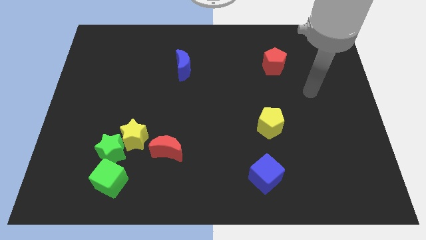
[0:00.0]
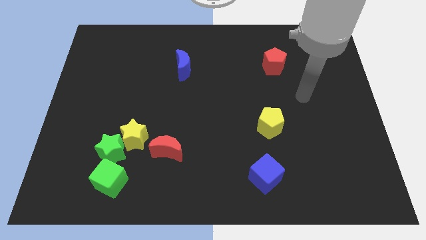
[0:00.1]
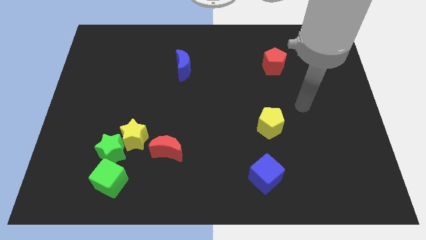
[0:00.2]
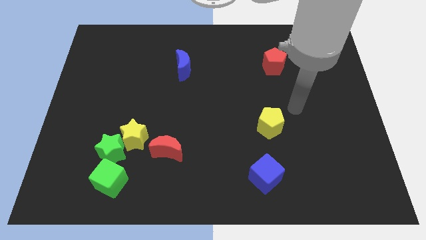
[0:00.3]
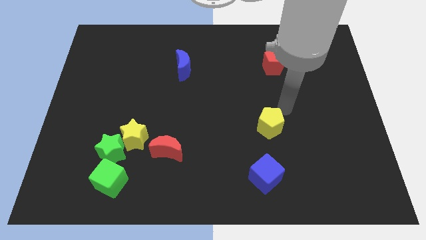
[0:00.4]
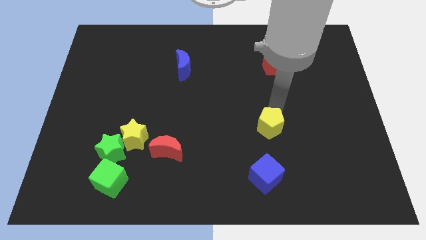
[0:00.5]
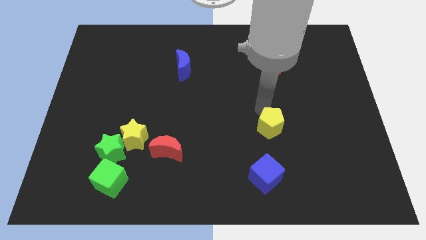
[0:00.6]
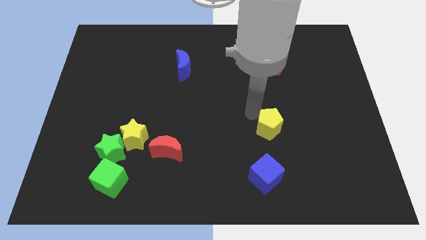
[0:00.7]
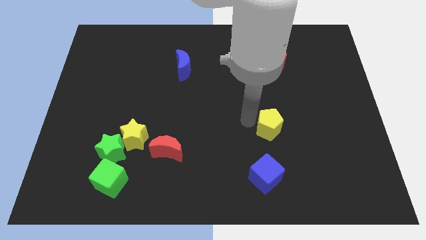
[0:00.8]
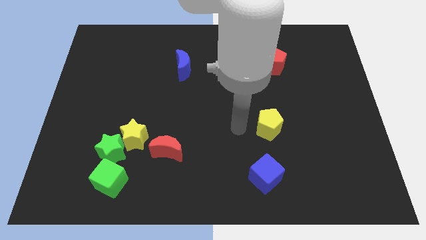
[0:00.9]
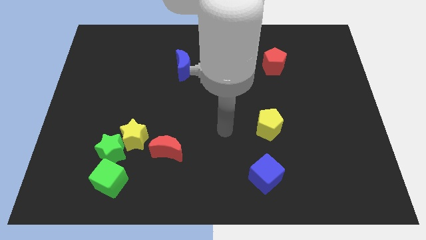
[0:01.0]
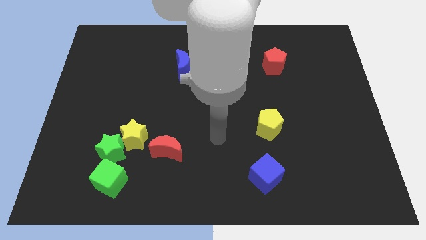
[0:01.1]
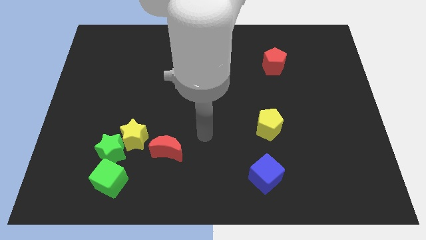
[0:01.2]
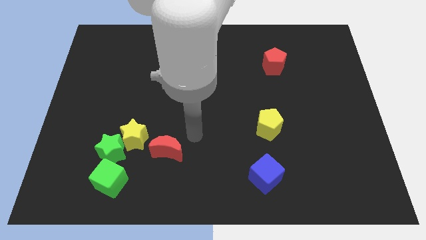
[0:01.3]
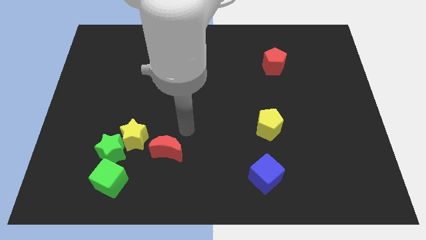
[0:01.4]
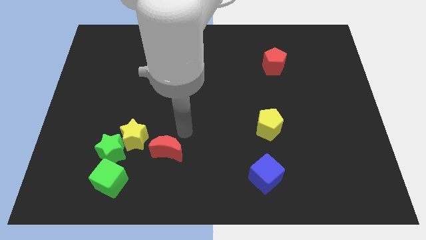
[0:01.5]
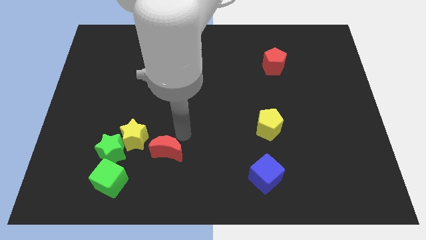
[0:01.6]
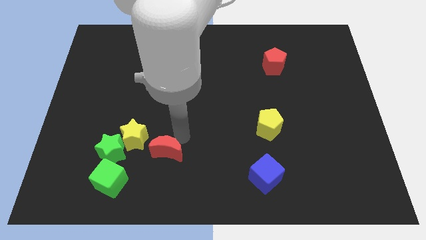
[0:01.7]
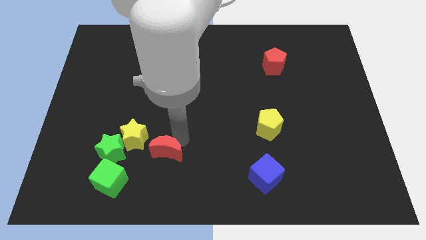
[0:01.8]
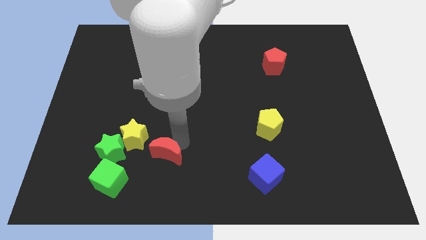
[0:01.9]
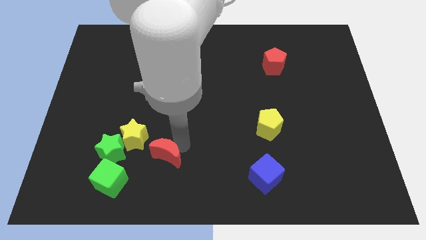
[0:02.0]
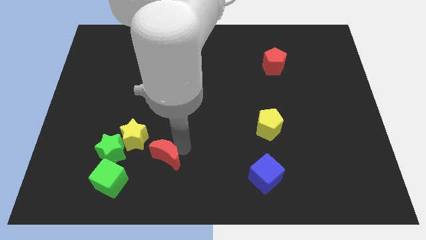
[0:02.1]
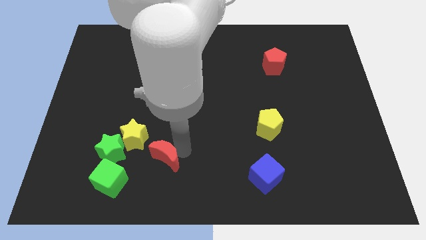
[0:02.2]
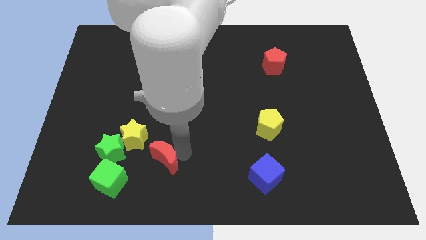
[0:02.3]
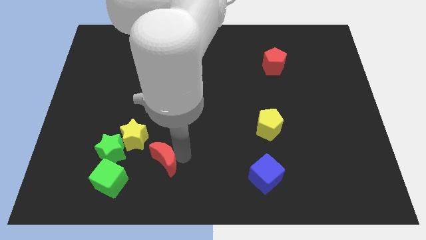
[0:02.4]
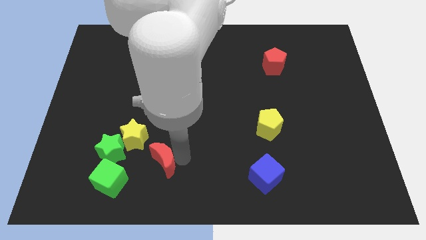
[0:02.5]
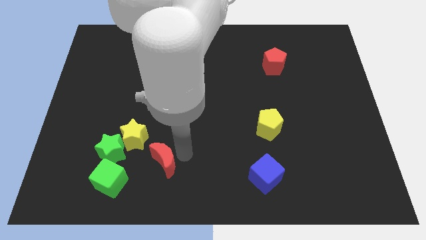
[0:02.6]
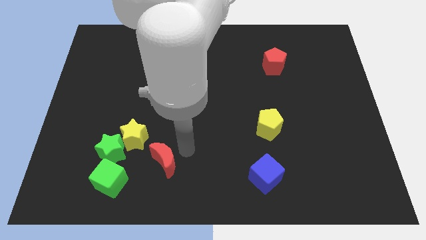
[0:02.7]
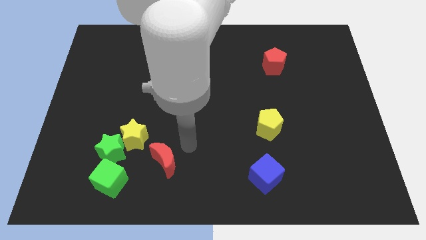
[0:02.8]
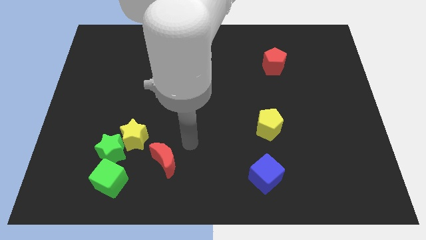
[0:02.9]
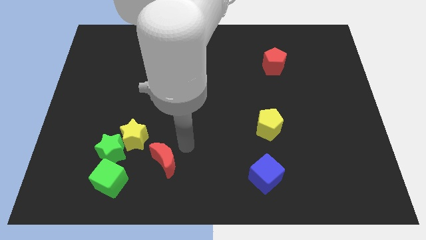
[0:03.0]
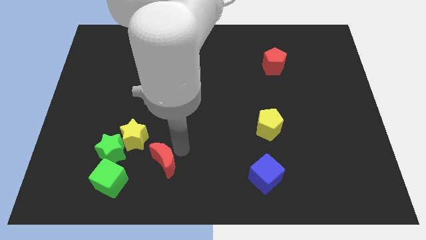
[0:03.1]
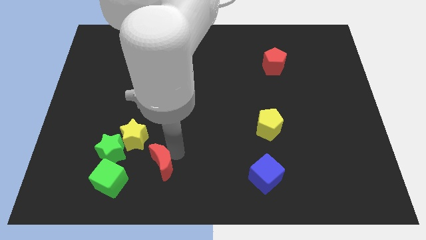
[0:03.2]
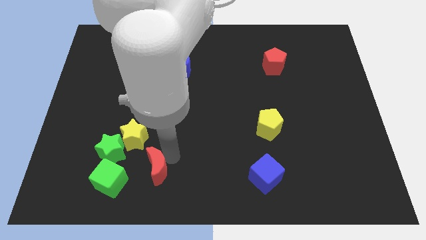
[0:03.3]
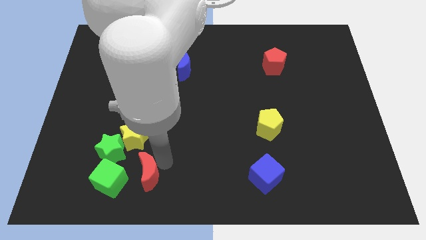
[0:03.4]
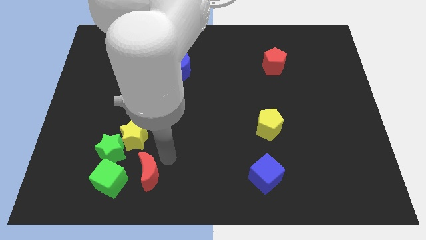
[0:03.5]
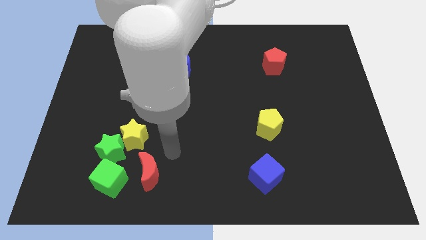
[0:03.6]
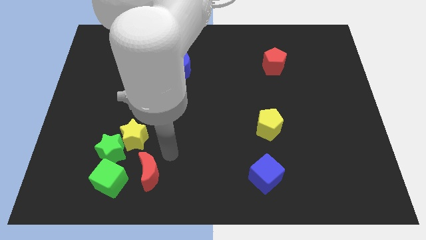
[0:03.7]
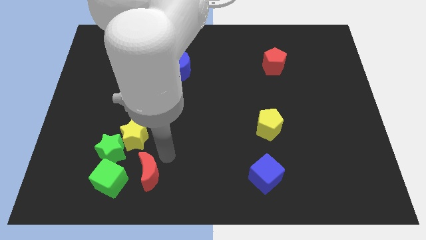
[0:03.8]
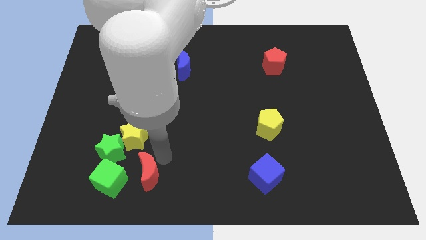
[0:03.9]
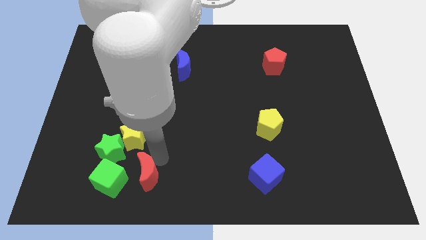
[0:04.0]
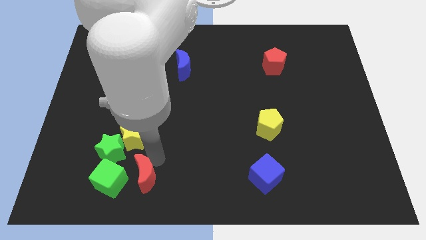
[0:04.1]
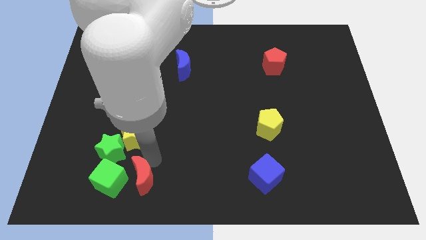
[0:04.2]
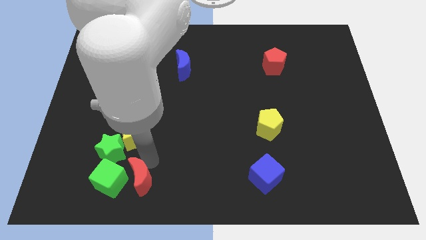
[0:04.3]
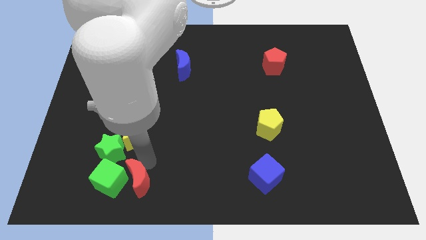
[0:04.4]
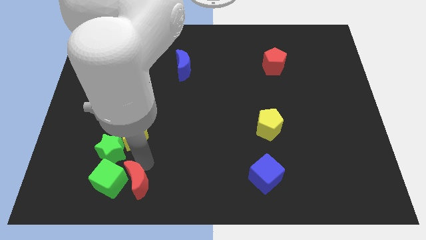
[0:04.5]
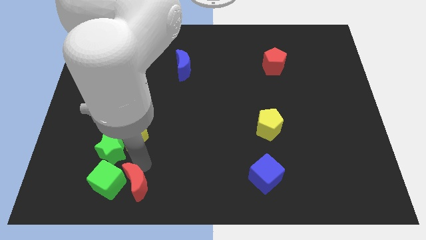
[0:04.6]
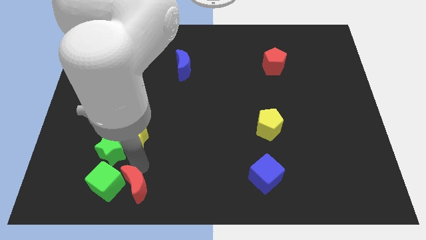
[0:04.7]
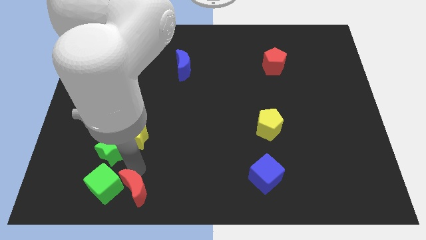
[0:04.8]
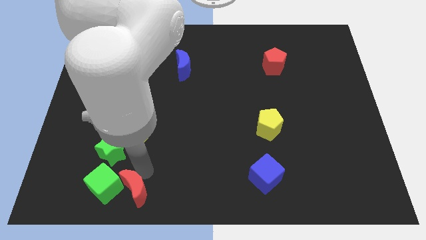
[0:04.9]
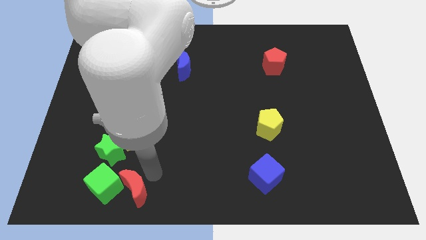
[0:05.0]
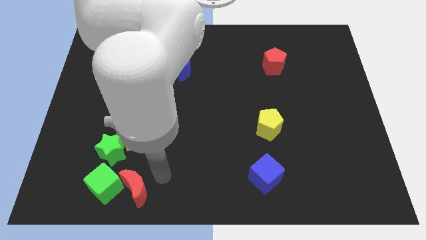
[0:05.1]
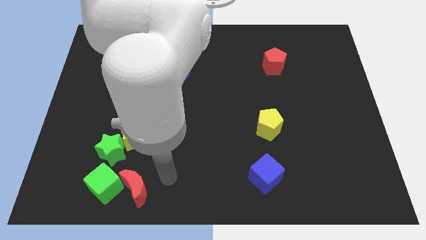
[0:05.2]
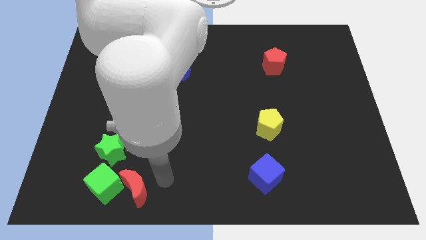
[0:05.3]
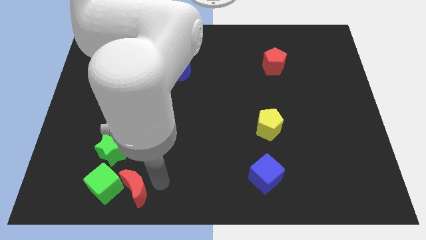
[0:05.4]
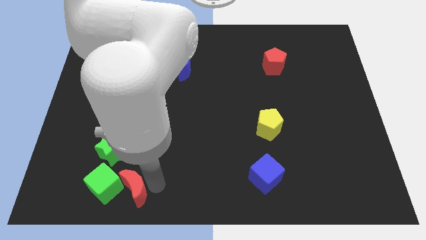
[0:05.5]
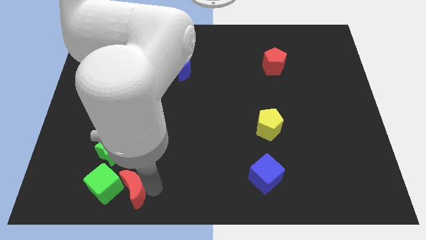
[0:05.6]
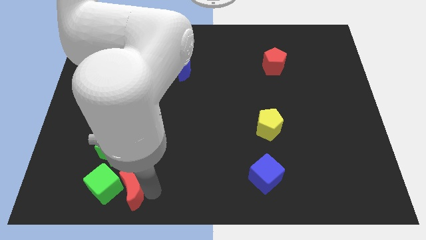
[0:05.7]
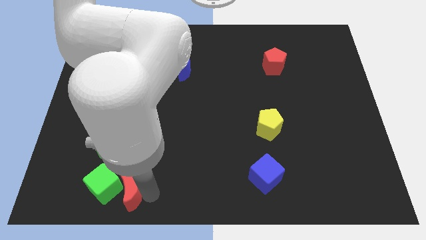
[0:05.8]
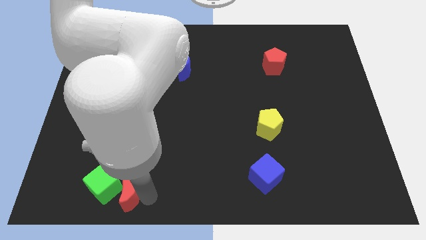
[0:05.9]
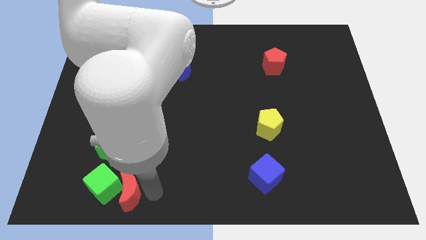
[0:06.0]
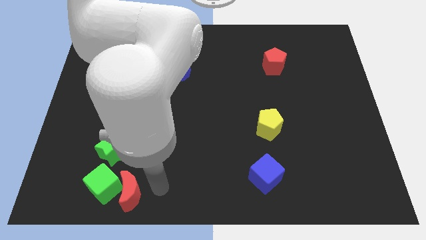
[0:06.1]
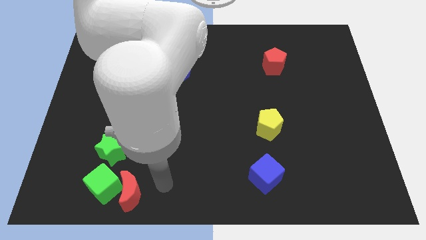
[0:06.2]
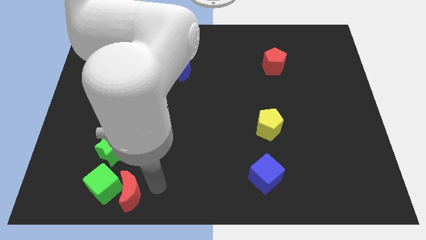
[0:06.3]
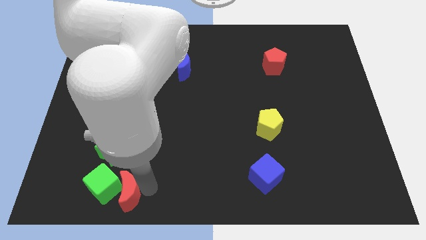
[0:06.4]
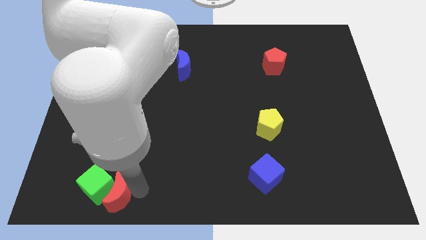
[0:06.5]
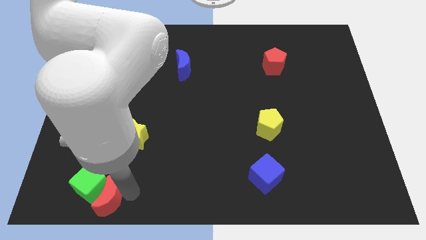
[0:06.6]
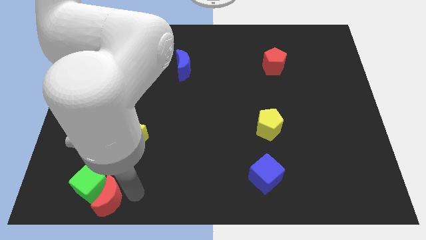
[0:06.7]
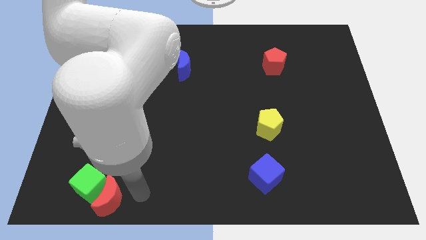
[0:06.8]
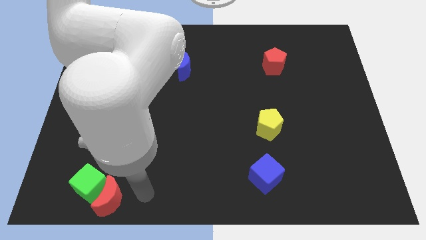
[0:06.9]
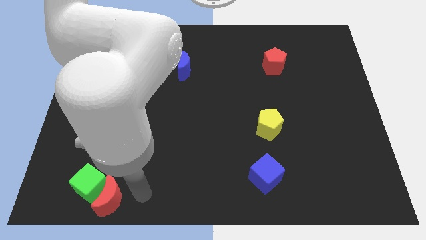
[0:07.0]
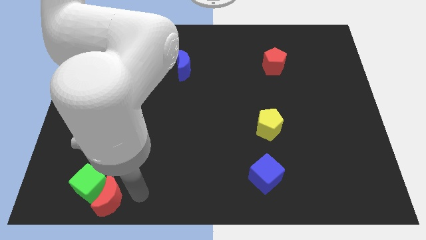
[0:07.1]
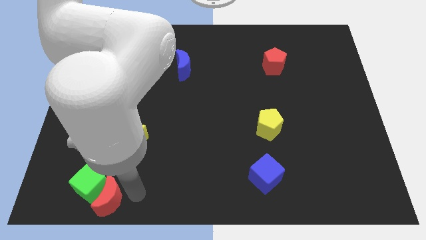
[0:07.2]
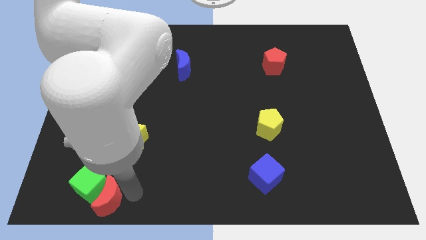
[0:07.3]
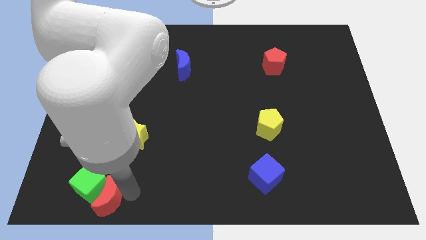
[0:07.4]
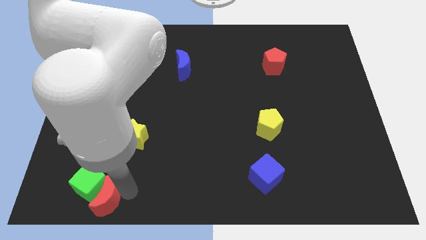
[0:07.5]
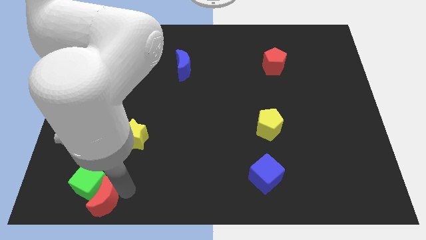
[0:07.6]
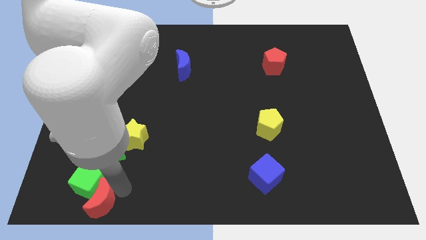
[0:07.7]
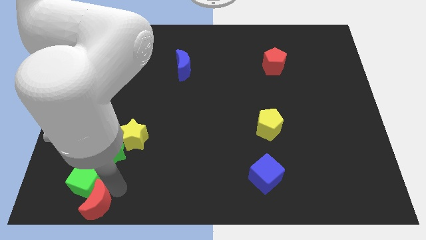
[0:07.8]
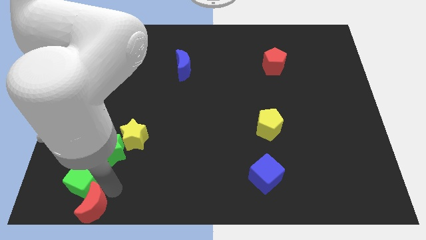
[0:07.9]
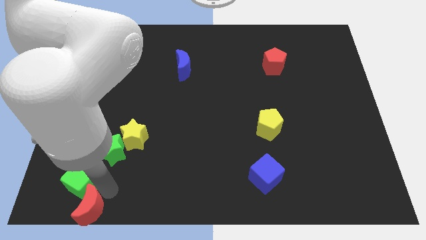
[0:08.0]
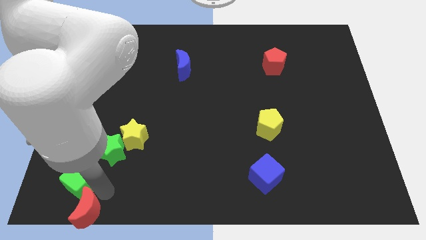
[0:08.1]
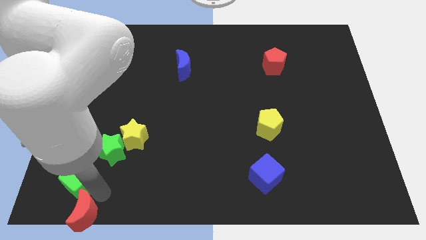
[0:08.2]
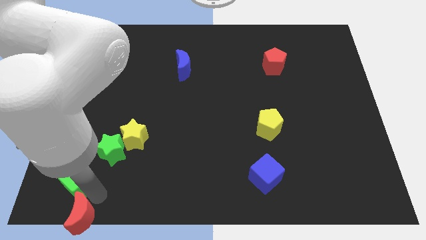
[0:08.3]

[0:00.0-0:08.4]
push the red moon to the lower left corner
